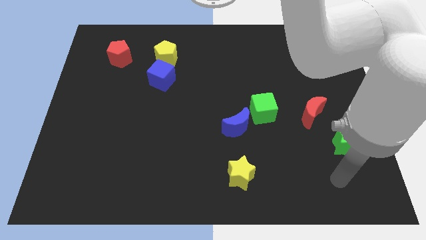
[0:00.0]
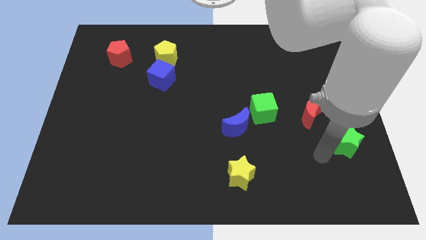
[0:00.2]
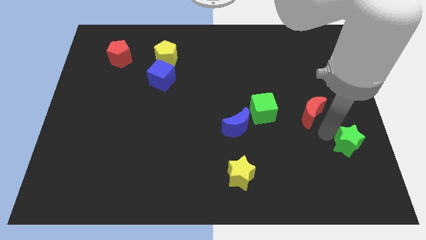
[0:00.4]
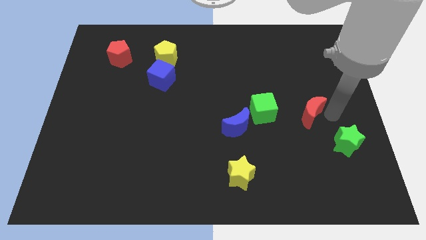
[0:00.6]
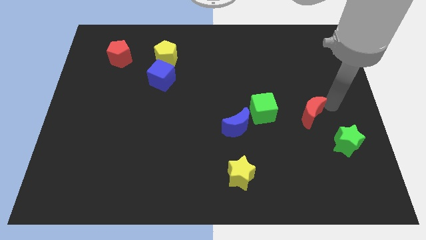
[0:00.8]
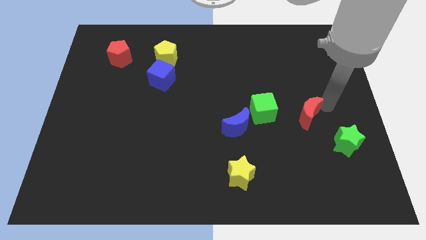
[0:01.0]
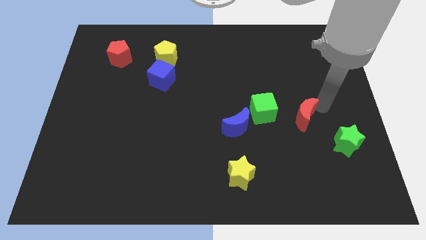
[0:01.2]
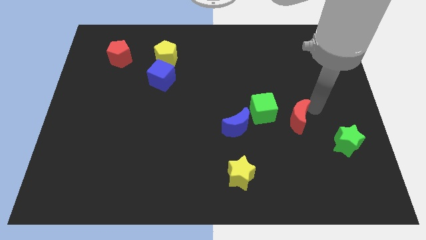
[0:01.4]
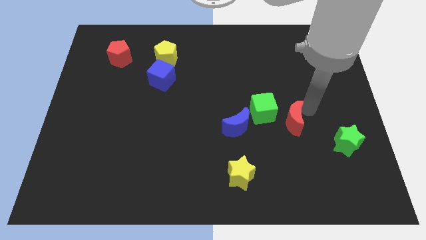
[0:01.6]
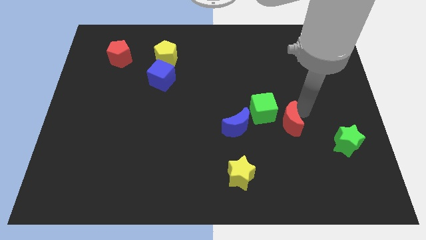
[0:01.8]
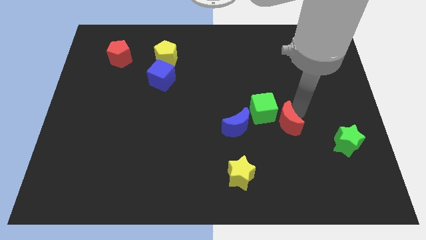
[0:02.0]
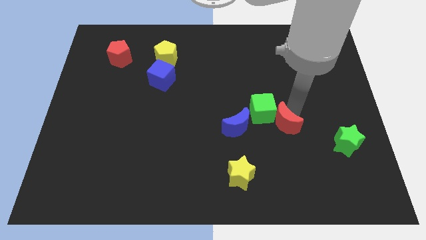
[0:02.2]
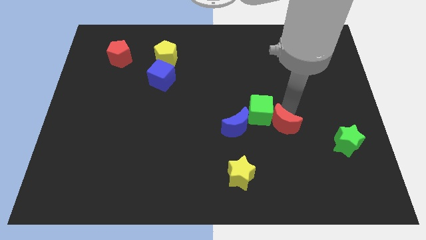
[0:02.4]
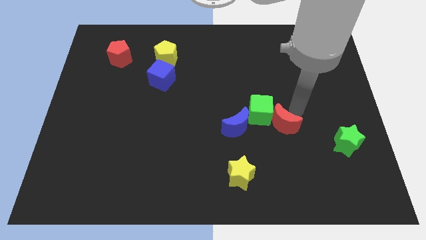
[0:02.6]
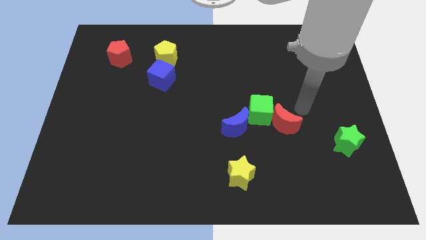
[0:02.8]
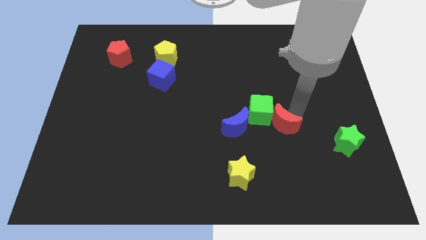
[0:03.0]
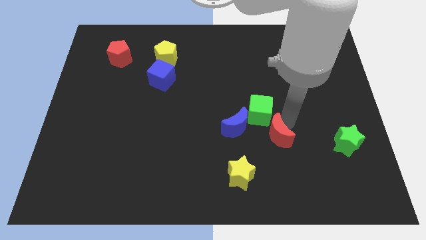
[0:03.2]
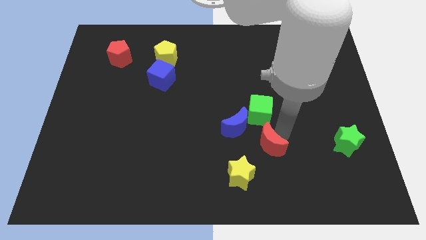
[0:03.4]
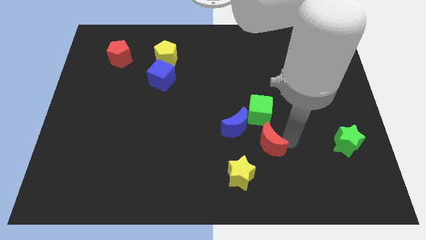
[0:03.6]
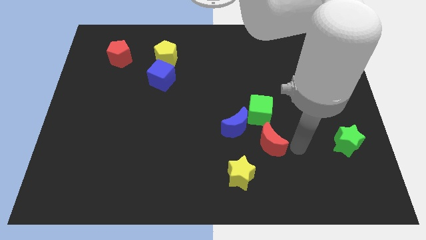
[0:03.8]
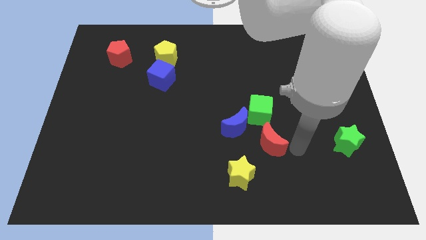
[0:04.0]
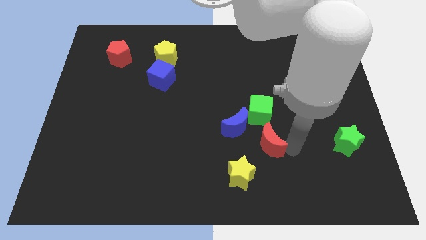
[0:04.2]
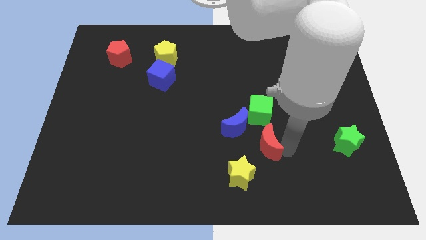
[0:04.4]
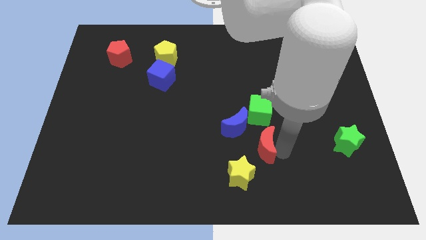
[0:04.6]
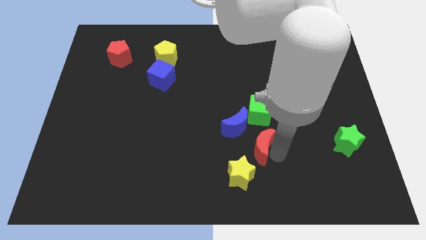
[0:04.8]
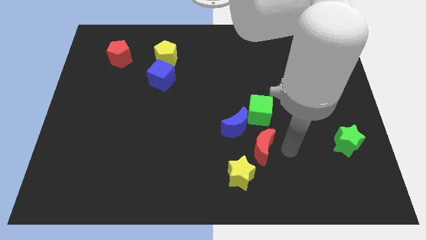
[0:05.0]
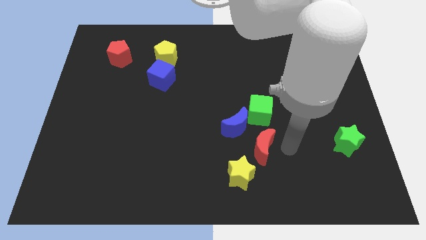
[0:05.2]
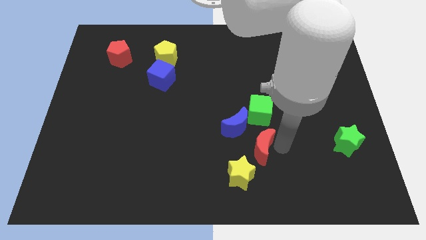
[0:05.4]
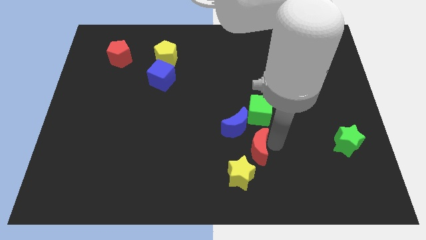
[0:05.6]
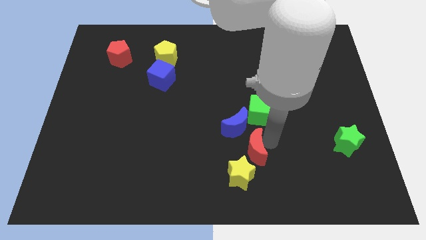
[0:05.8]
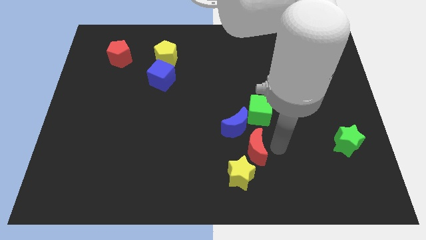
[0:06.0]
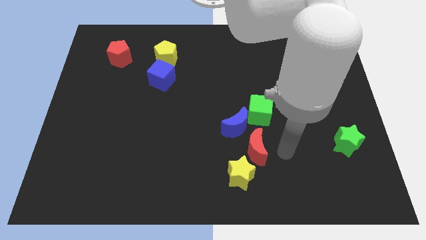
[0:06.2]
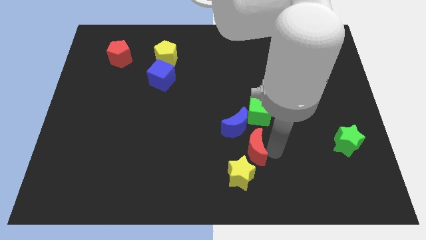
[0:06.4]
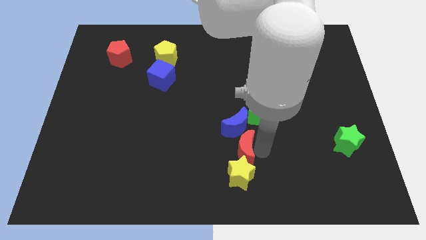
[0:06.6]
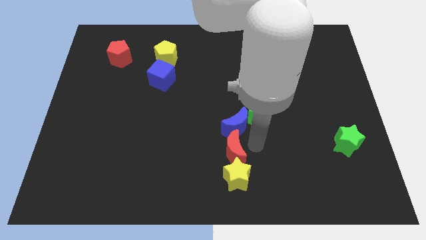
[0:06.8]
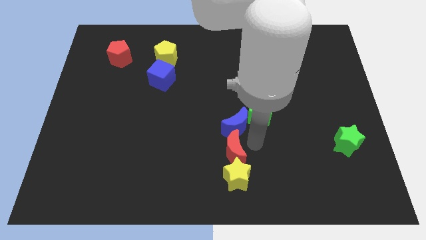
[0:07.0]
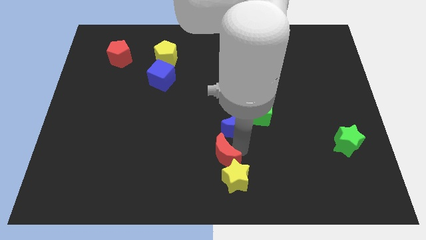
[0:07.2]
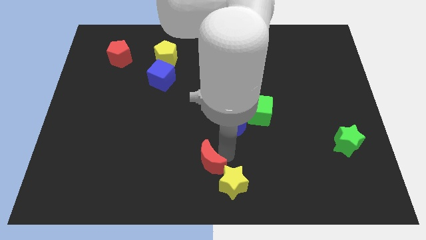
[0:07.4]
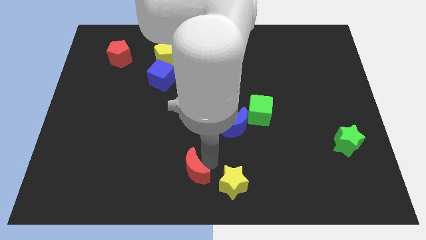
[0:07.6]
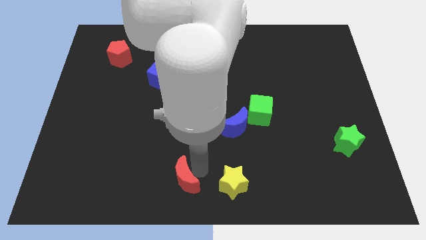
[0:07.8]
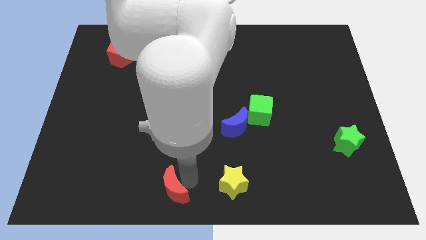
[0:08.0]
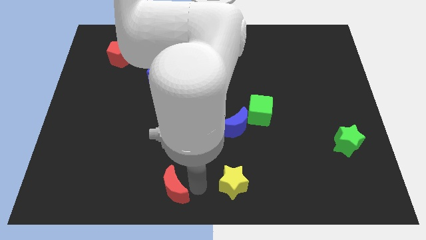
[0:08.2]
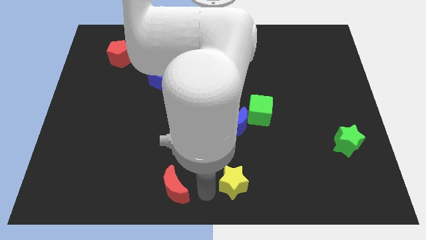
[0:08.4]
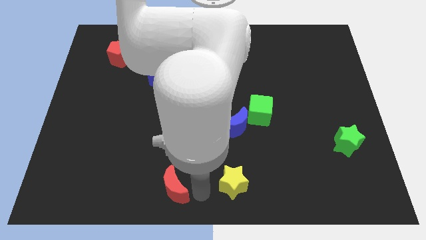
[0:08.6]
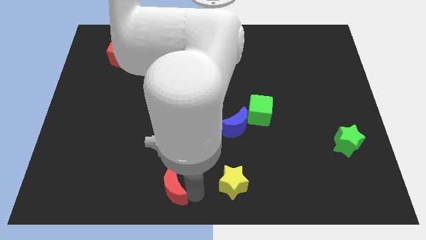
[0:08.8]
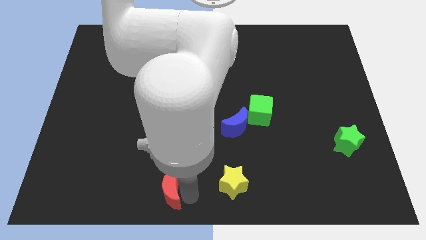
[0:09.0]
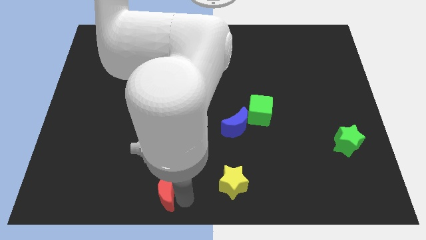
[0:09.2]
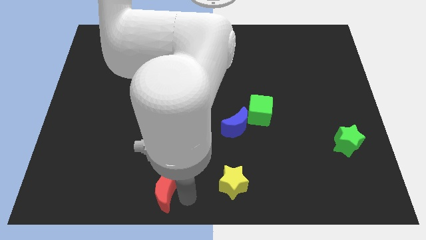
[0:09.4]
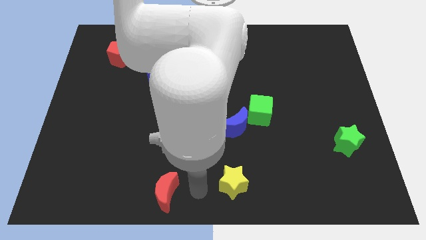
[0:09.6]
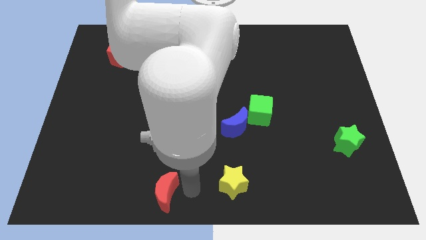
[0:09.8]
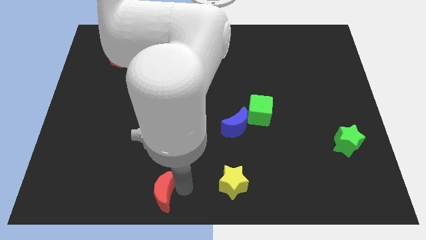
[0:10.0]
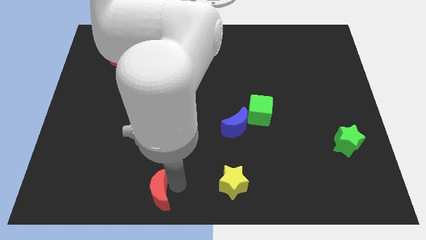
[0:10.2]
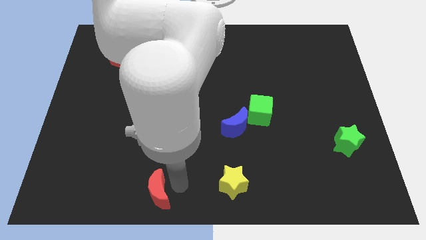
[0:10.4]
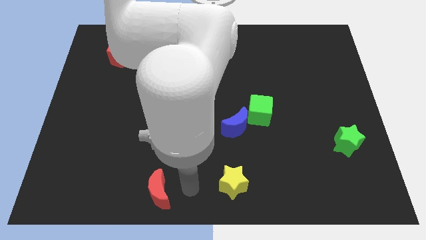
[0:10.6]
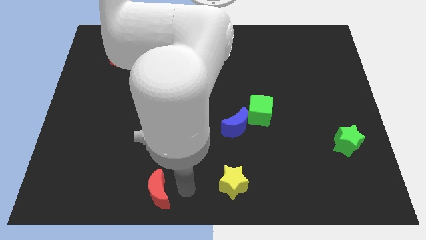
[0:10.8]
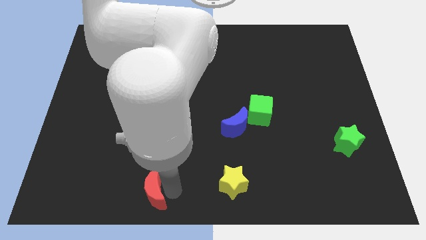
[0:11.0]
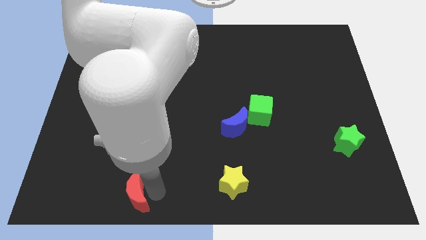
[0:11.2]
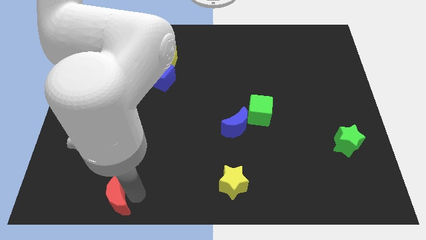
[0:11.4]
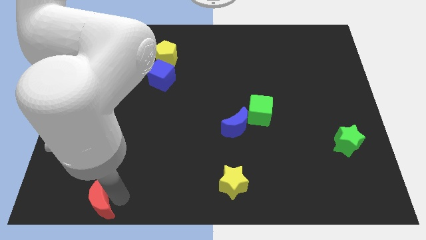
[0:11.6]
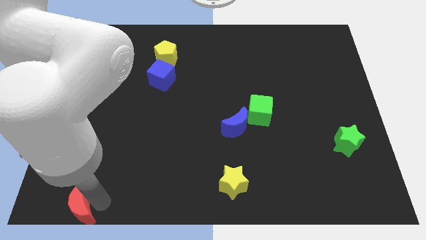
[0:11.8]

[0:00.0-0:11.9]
move the red moon to the bottom left of the board

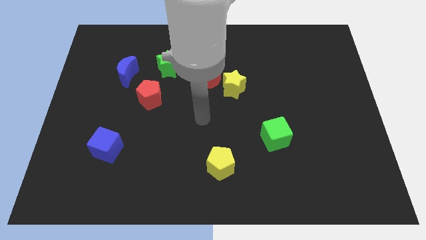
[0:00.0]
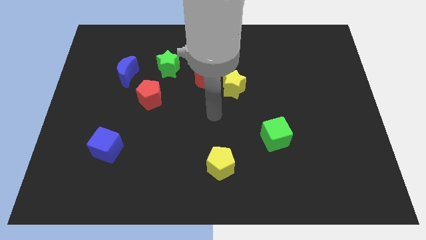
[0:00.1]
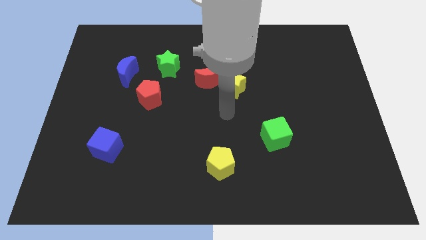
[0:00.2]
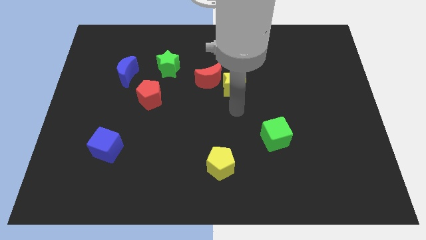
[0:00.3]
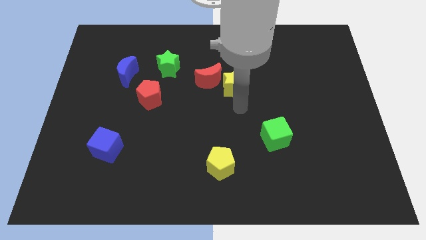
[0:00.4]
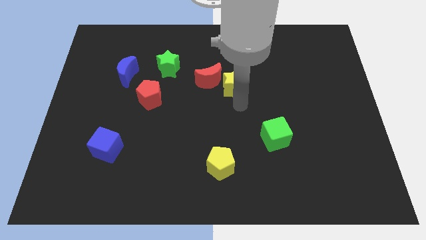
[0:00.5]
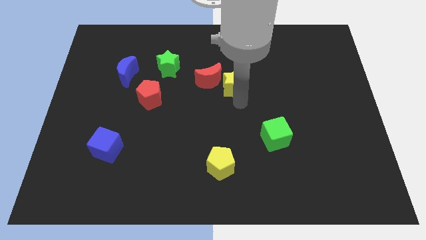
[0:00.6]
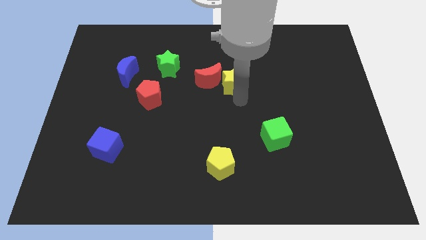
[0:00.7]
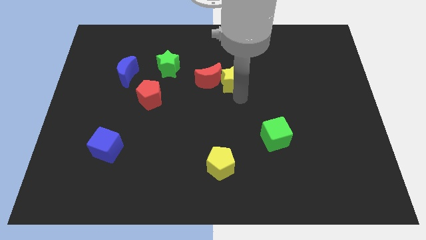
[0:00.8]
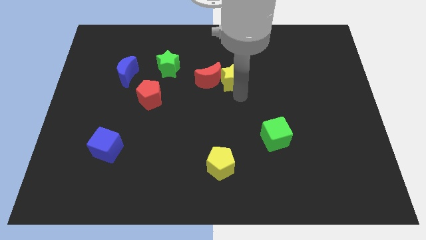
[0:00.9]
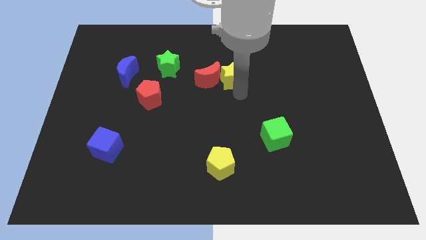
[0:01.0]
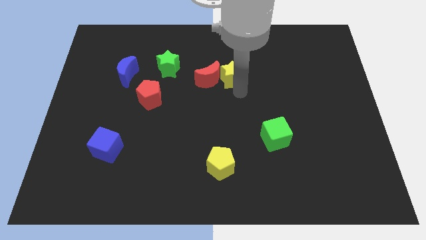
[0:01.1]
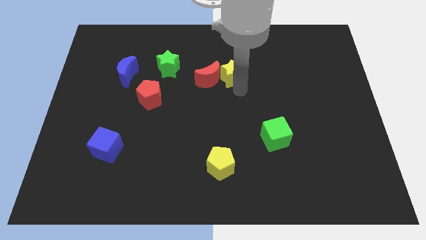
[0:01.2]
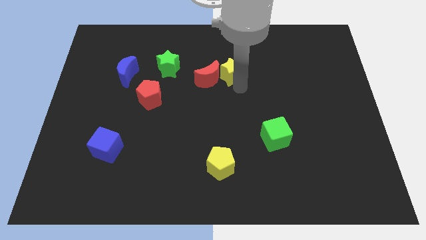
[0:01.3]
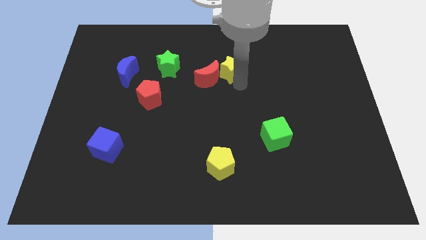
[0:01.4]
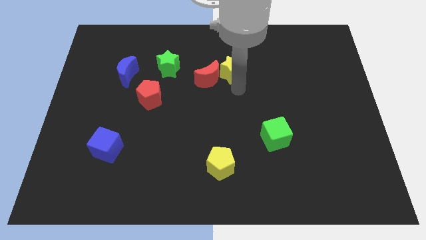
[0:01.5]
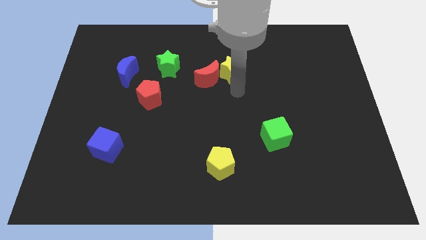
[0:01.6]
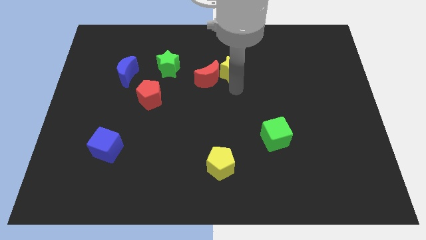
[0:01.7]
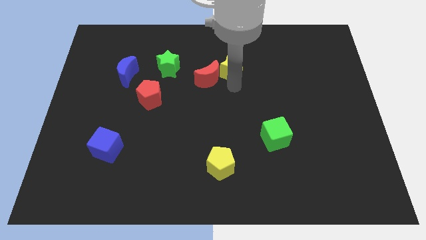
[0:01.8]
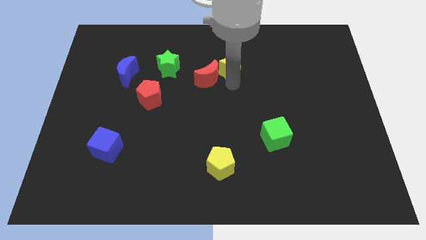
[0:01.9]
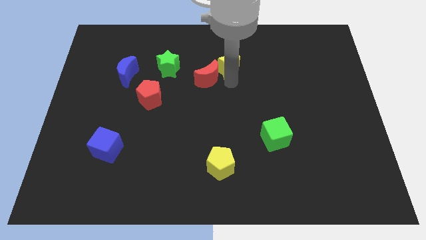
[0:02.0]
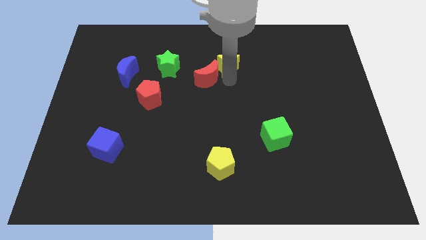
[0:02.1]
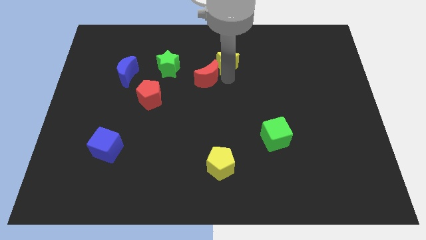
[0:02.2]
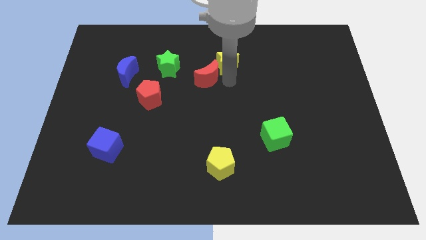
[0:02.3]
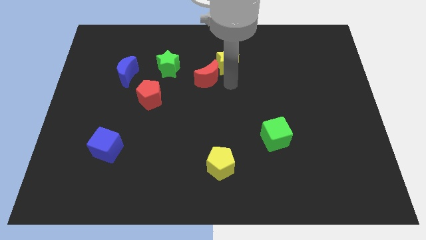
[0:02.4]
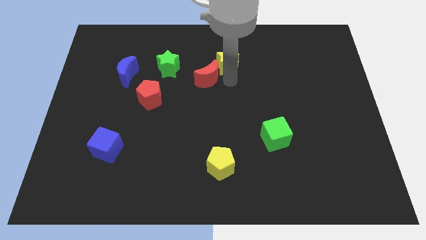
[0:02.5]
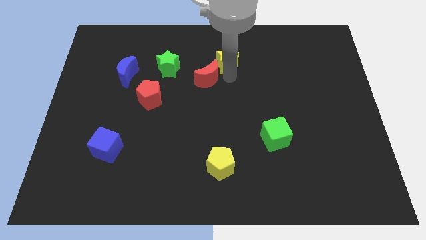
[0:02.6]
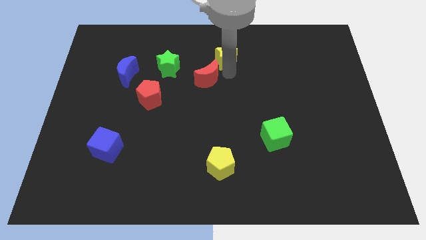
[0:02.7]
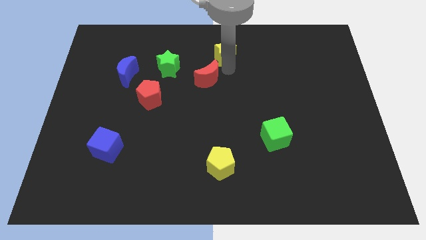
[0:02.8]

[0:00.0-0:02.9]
put the yellow star to the top
